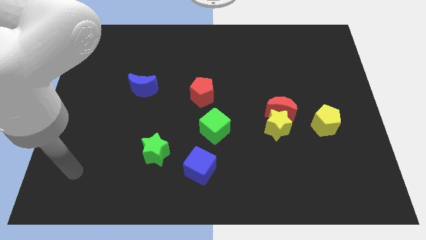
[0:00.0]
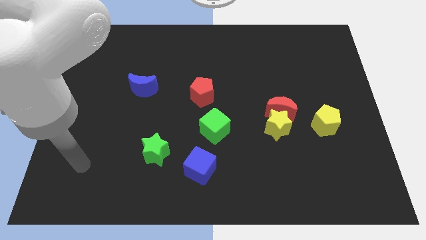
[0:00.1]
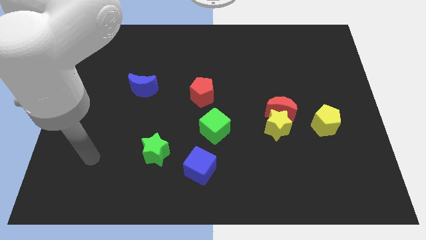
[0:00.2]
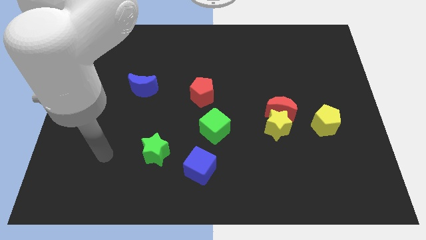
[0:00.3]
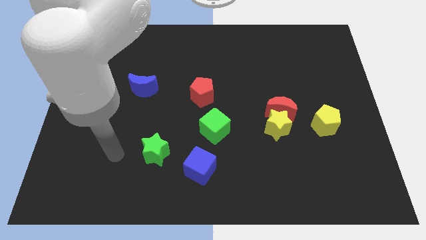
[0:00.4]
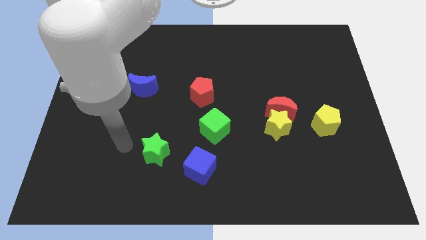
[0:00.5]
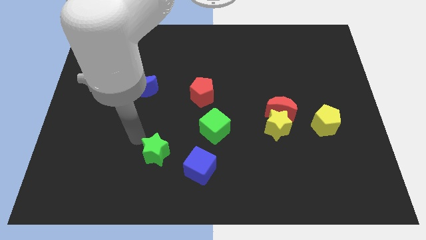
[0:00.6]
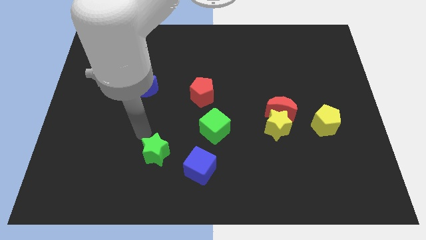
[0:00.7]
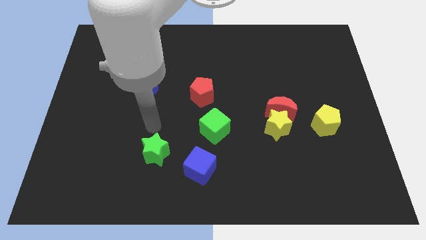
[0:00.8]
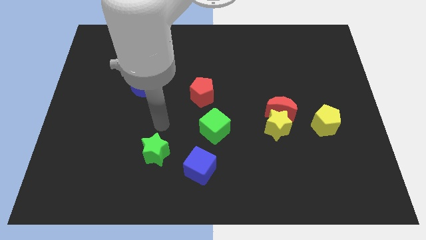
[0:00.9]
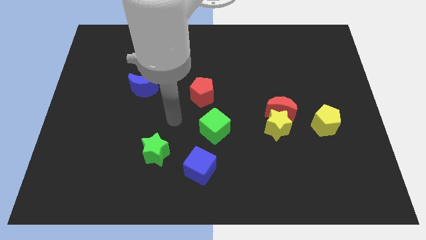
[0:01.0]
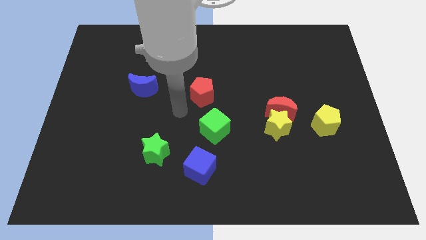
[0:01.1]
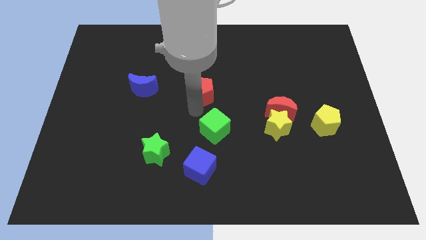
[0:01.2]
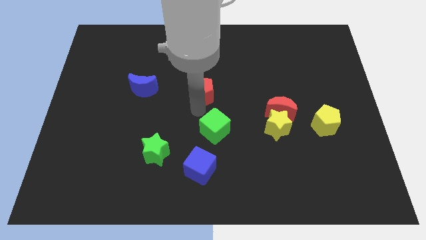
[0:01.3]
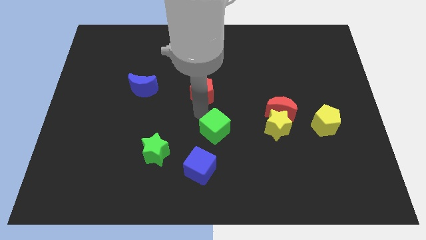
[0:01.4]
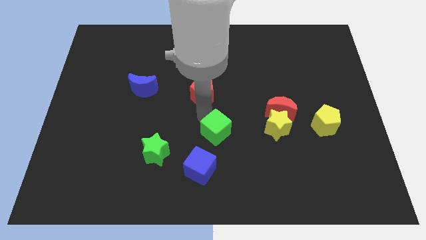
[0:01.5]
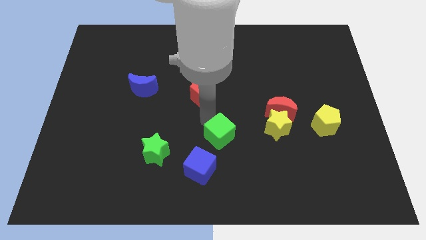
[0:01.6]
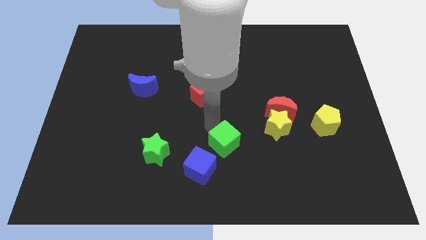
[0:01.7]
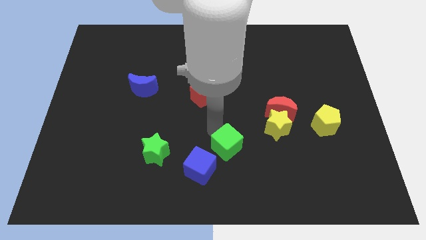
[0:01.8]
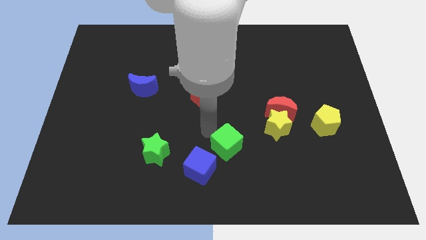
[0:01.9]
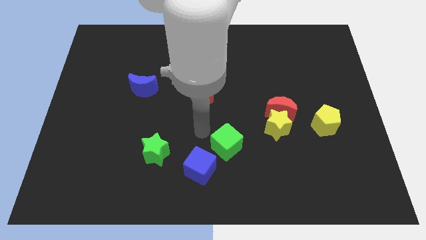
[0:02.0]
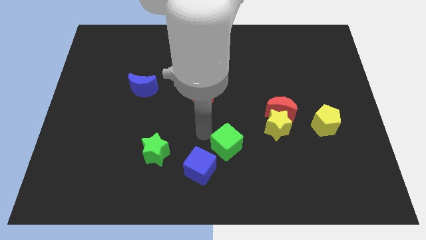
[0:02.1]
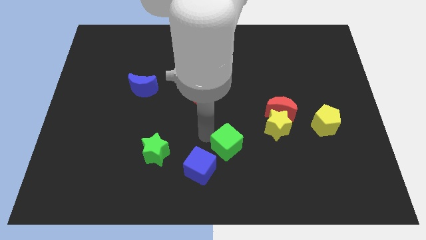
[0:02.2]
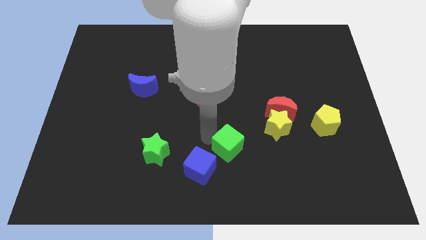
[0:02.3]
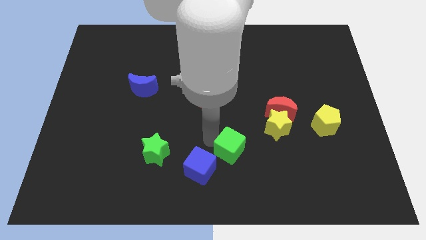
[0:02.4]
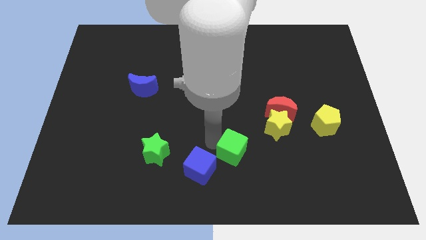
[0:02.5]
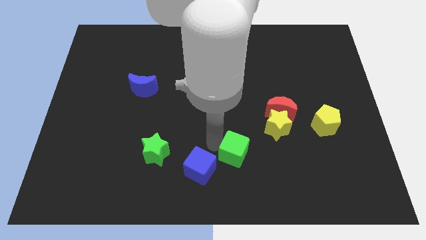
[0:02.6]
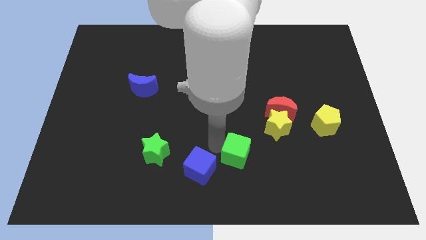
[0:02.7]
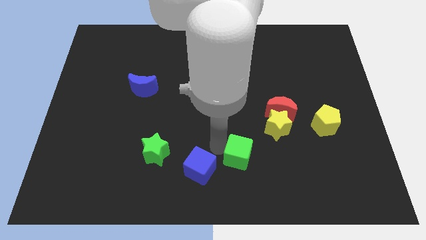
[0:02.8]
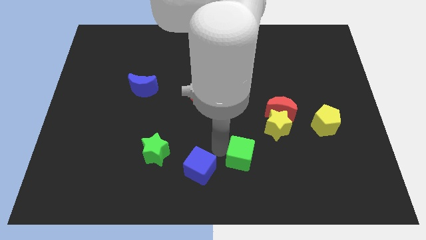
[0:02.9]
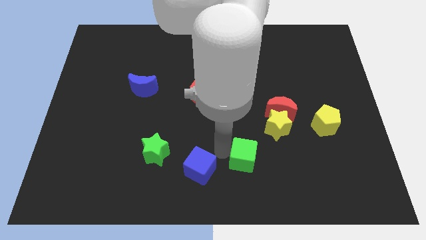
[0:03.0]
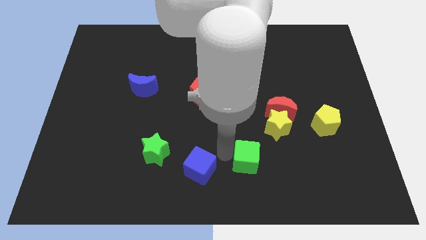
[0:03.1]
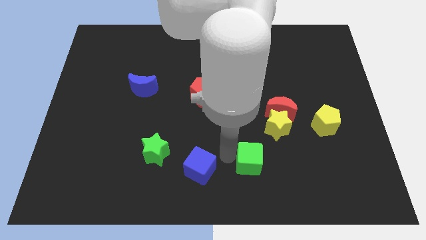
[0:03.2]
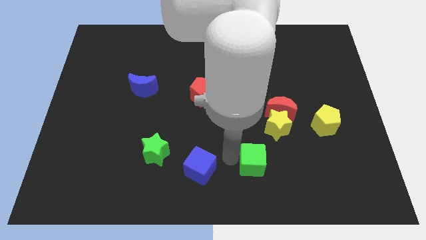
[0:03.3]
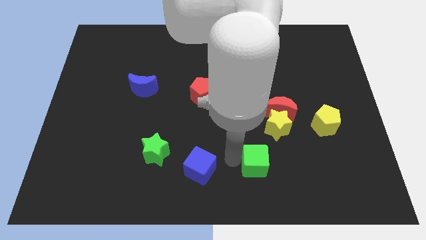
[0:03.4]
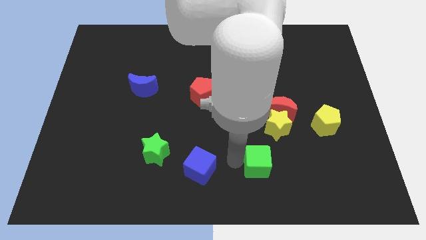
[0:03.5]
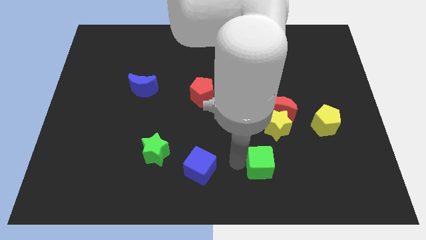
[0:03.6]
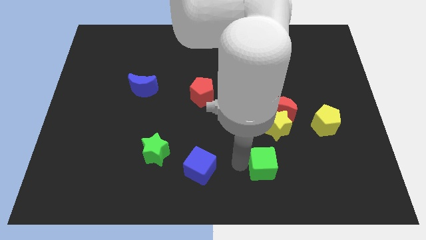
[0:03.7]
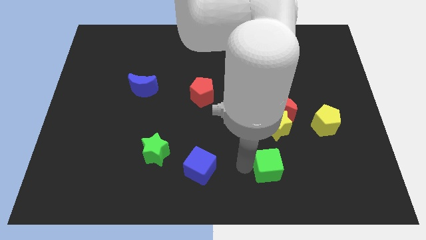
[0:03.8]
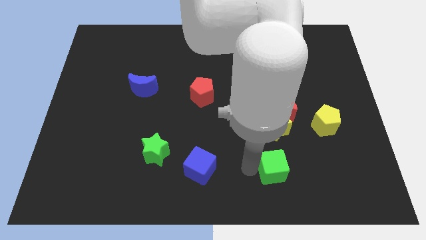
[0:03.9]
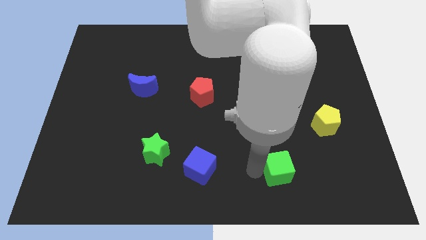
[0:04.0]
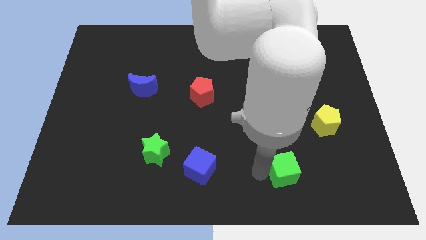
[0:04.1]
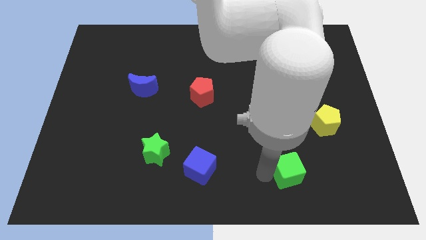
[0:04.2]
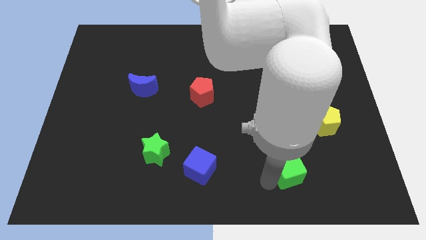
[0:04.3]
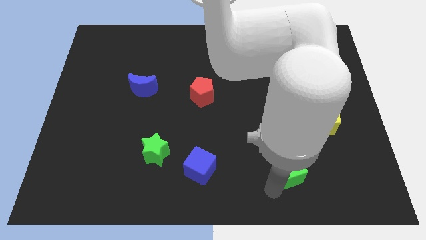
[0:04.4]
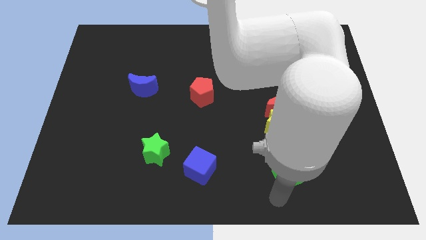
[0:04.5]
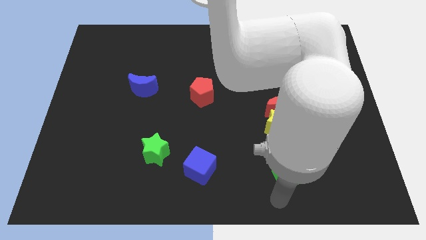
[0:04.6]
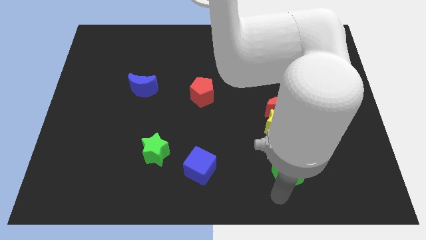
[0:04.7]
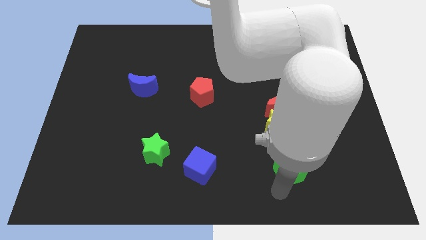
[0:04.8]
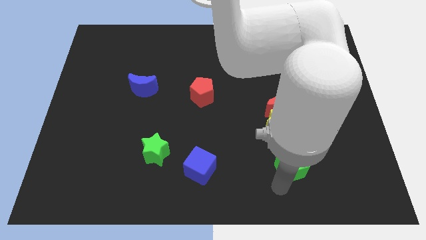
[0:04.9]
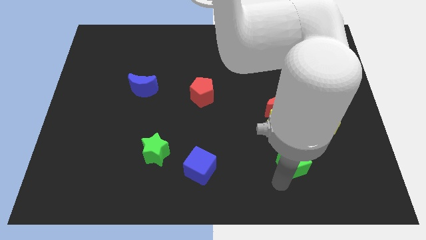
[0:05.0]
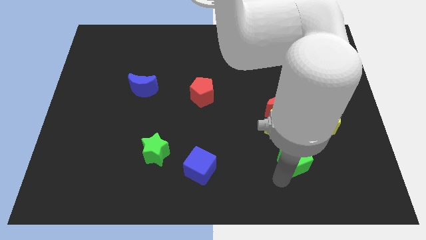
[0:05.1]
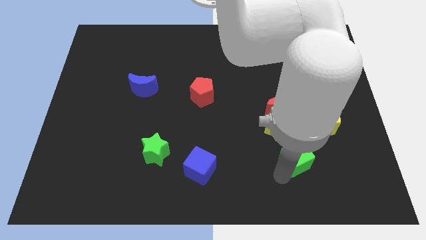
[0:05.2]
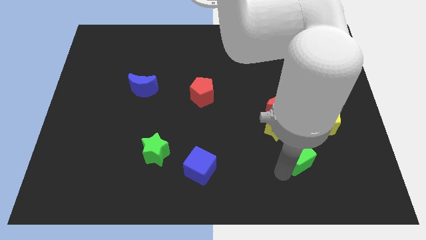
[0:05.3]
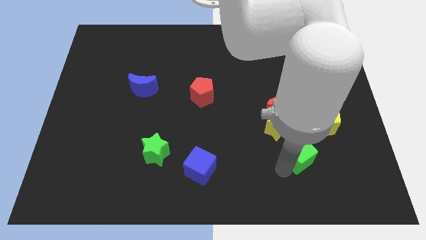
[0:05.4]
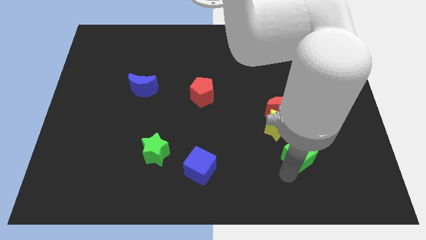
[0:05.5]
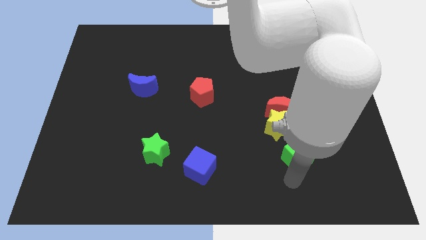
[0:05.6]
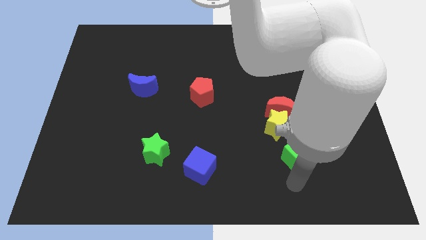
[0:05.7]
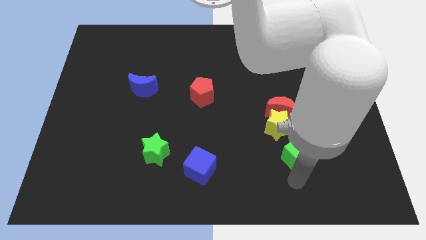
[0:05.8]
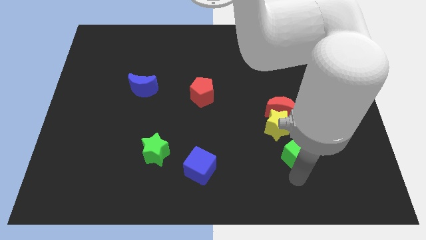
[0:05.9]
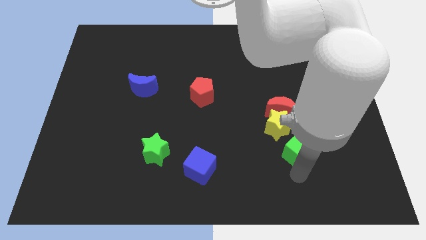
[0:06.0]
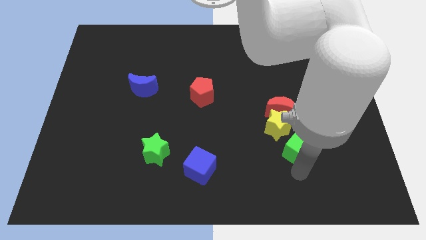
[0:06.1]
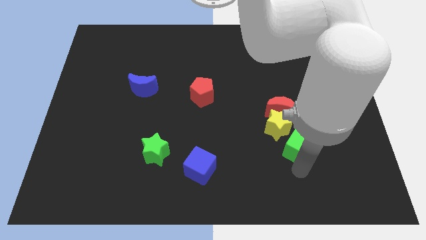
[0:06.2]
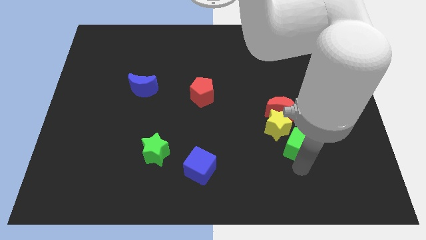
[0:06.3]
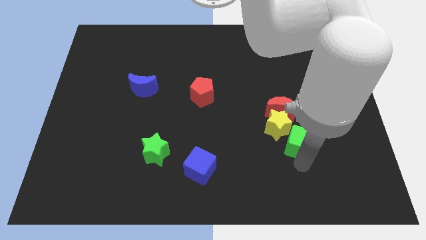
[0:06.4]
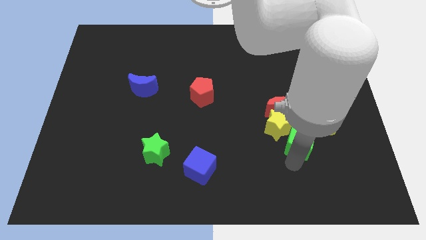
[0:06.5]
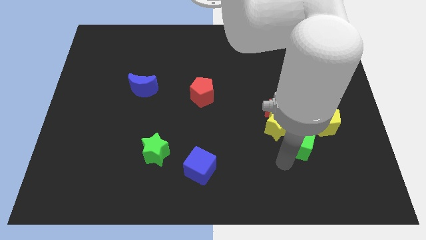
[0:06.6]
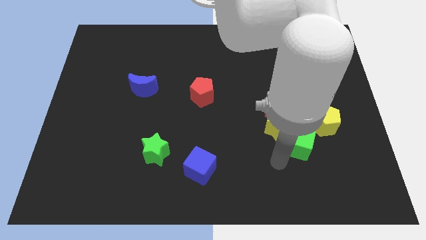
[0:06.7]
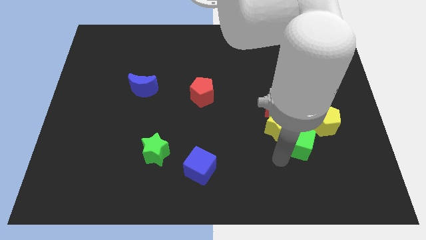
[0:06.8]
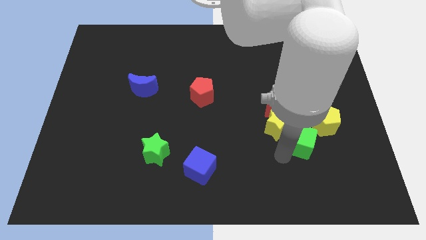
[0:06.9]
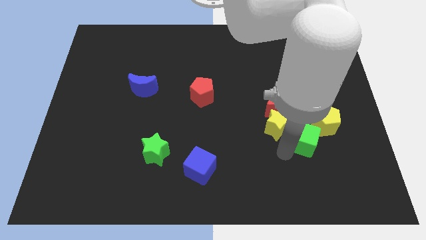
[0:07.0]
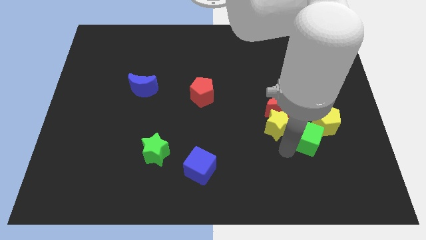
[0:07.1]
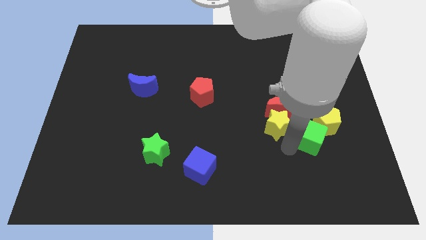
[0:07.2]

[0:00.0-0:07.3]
slide the green cube towards the yellow pentagon
